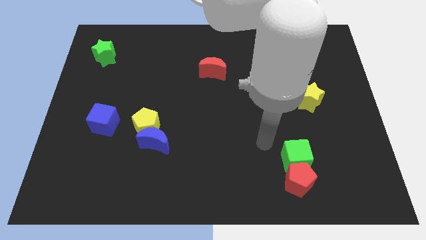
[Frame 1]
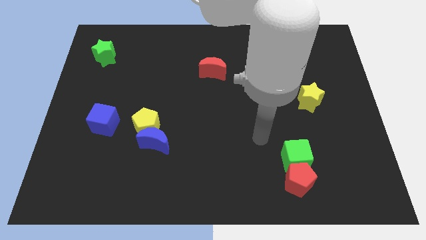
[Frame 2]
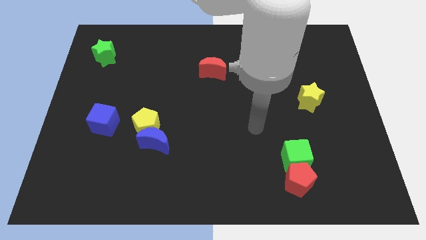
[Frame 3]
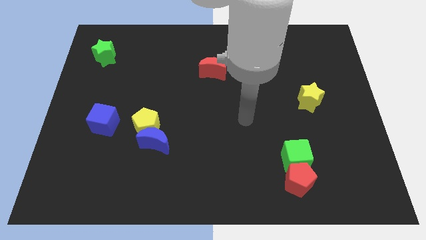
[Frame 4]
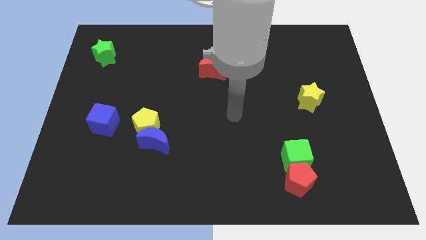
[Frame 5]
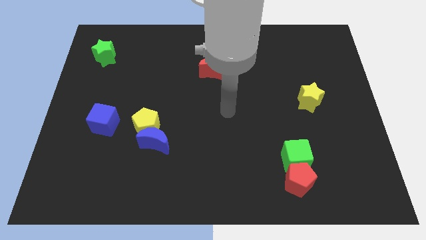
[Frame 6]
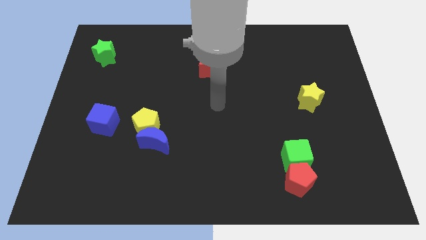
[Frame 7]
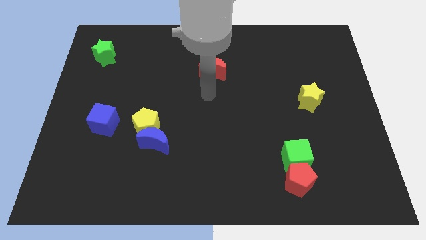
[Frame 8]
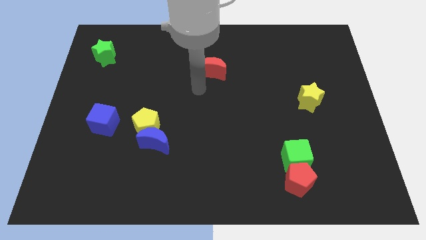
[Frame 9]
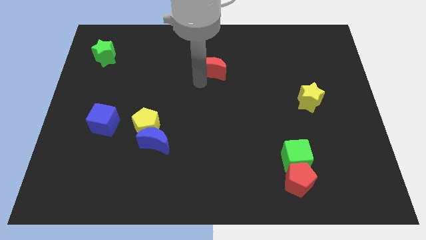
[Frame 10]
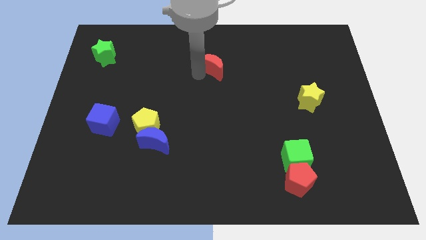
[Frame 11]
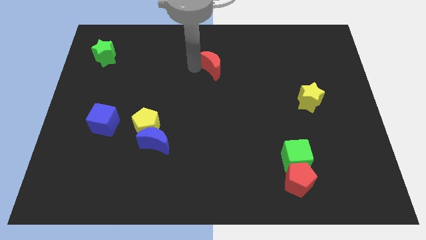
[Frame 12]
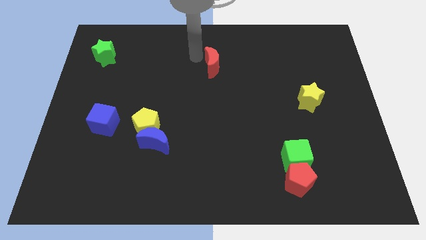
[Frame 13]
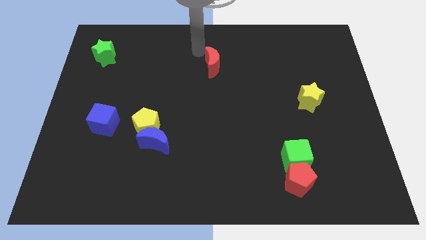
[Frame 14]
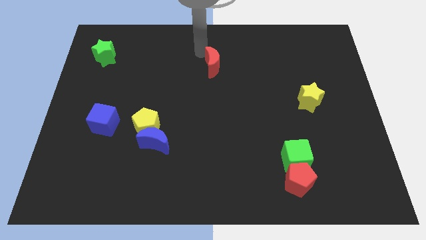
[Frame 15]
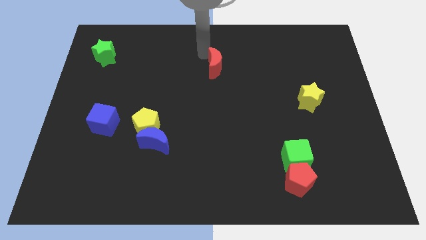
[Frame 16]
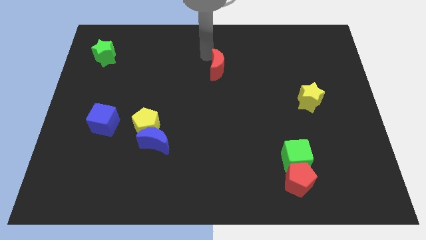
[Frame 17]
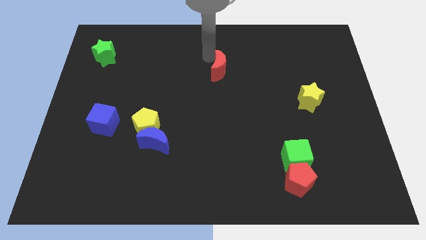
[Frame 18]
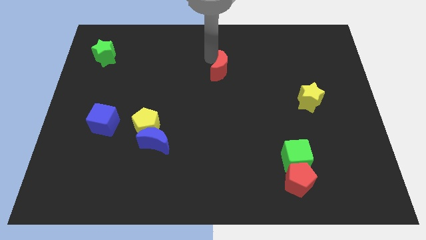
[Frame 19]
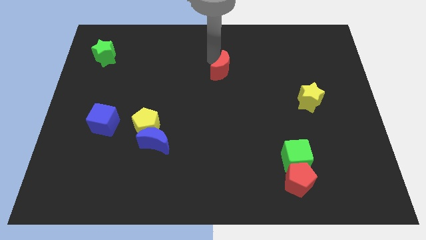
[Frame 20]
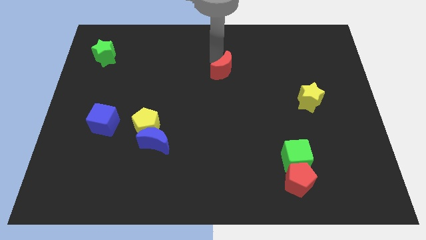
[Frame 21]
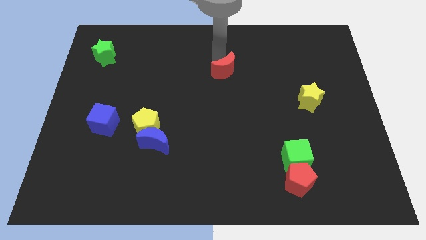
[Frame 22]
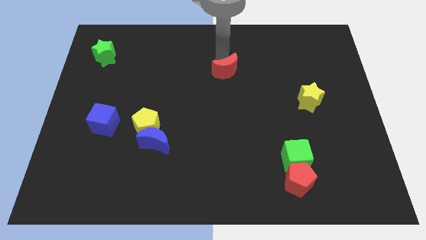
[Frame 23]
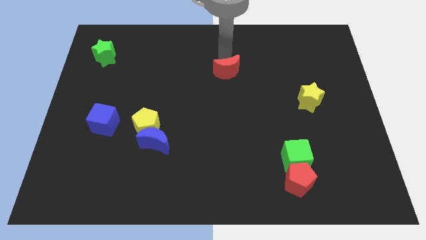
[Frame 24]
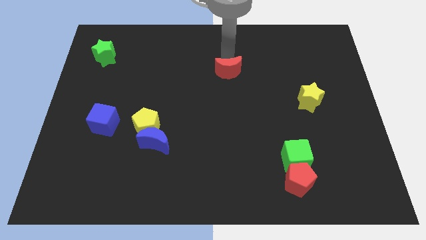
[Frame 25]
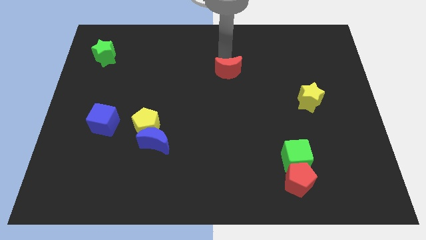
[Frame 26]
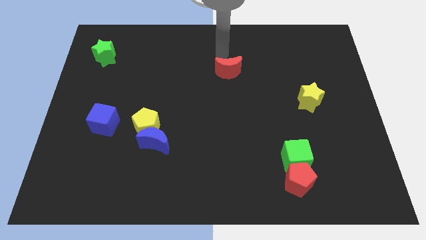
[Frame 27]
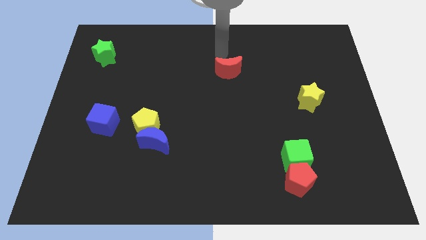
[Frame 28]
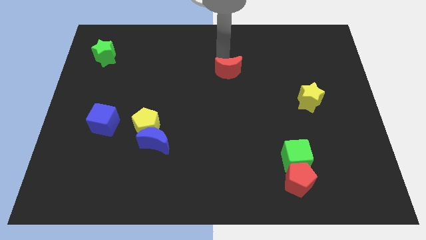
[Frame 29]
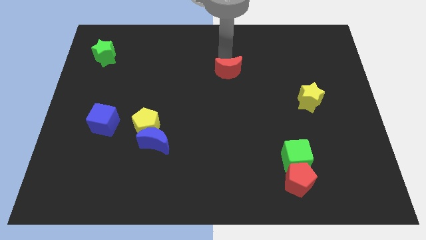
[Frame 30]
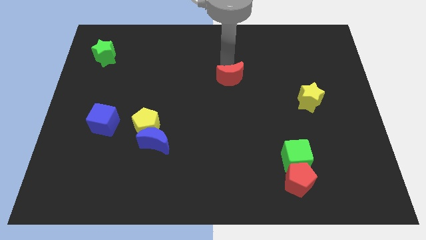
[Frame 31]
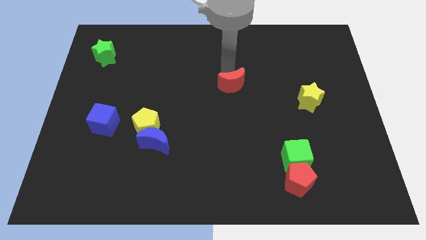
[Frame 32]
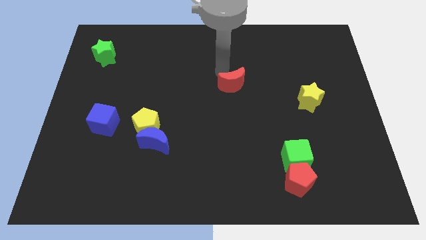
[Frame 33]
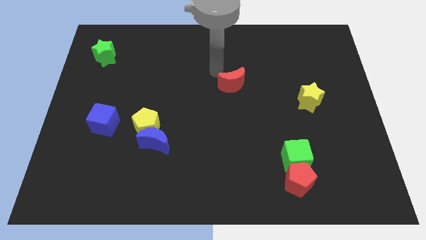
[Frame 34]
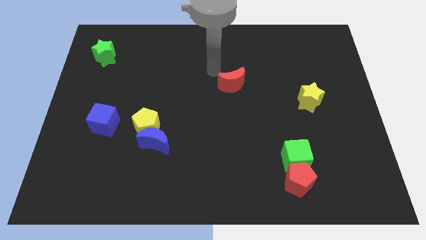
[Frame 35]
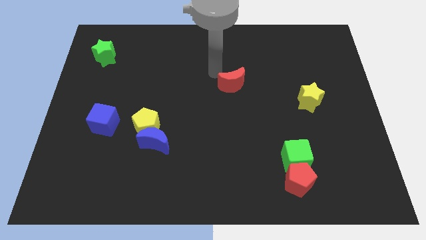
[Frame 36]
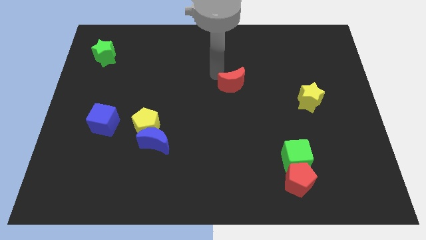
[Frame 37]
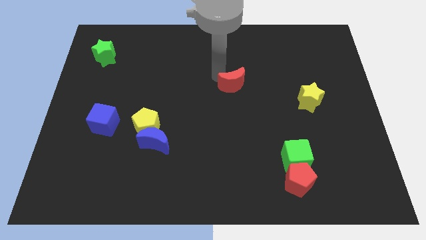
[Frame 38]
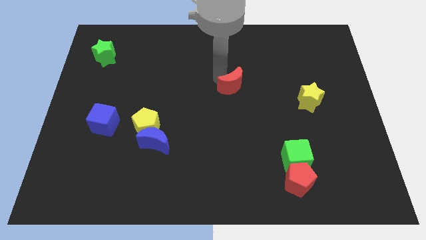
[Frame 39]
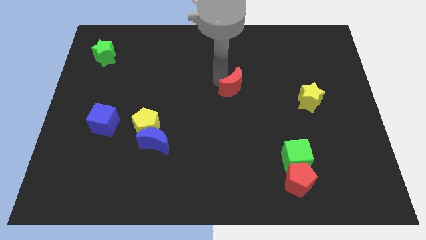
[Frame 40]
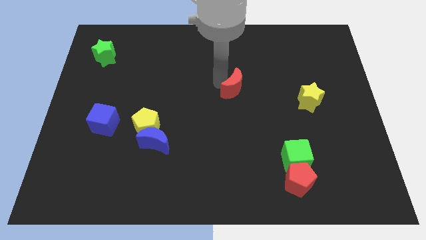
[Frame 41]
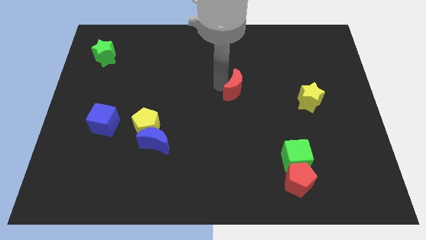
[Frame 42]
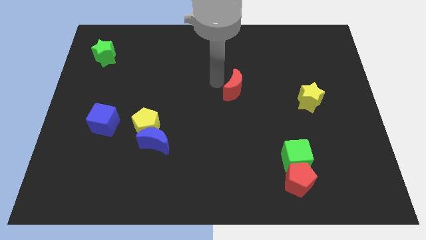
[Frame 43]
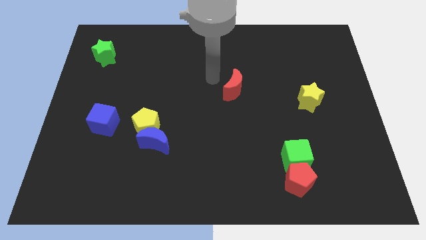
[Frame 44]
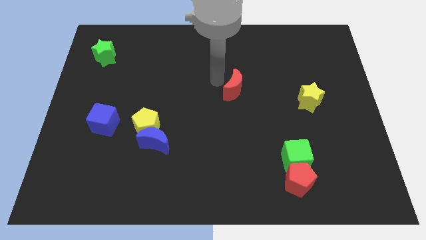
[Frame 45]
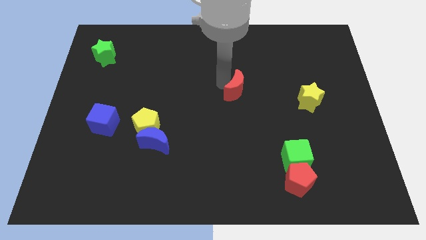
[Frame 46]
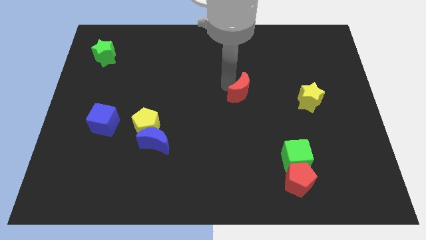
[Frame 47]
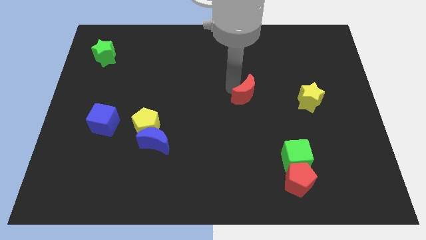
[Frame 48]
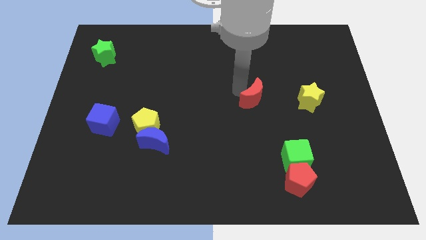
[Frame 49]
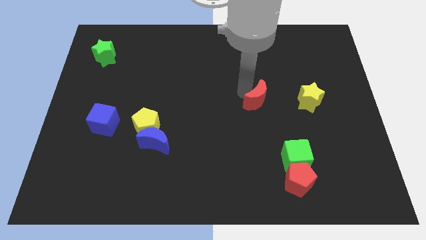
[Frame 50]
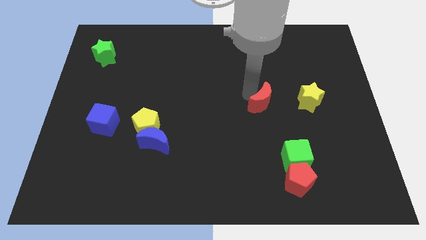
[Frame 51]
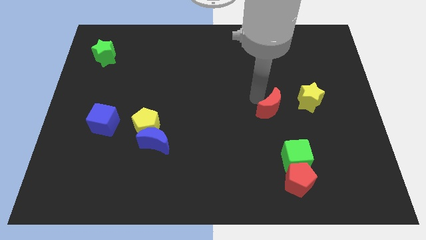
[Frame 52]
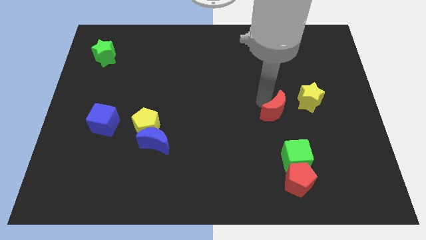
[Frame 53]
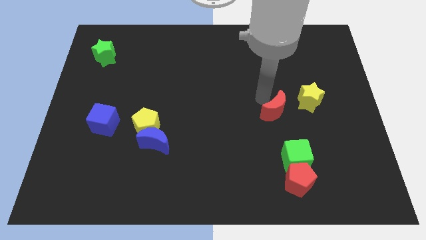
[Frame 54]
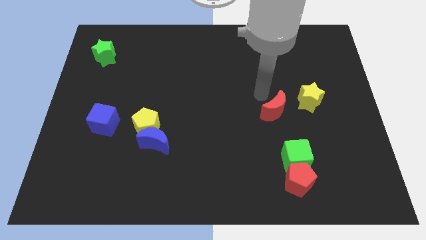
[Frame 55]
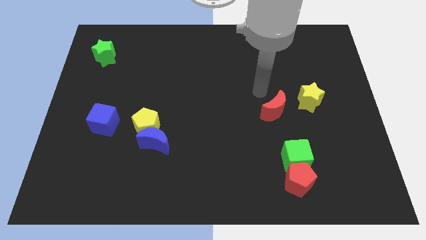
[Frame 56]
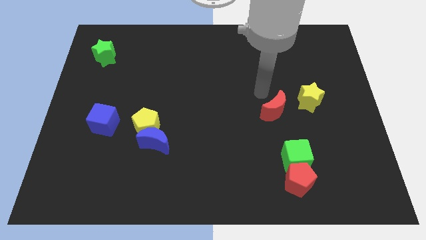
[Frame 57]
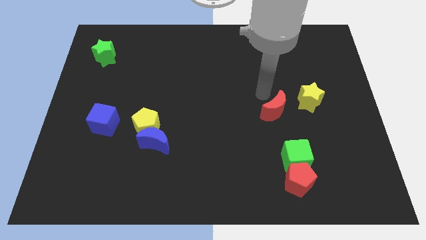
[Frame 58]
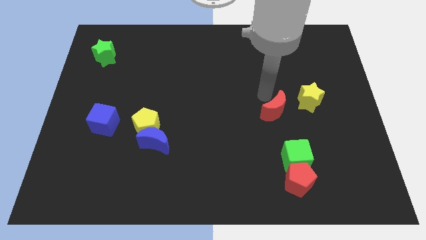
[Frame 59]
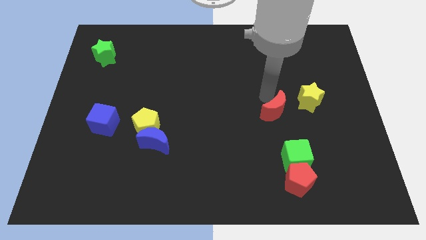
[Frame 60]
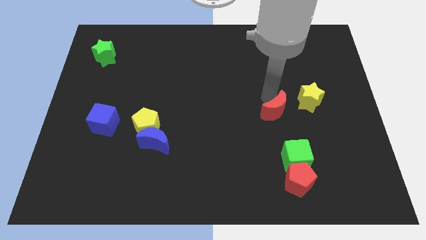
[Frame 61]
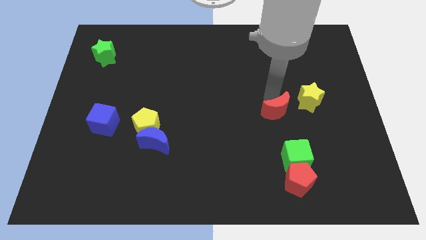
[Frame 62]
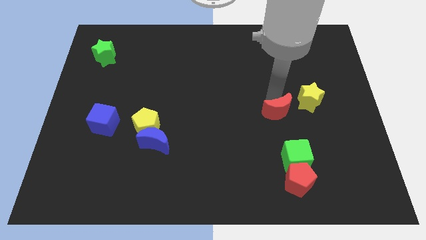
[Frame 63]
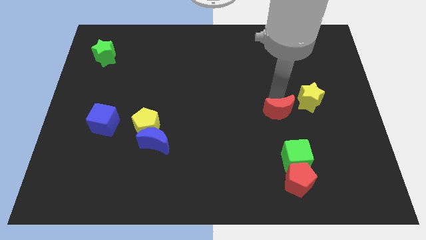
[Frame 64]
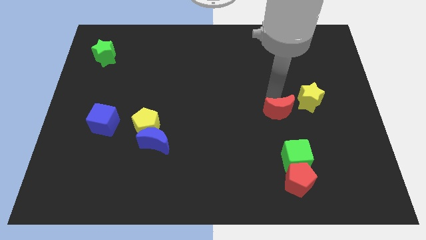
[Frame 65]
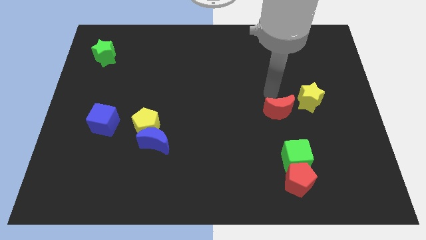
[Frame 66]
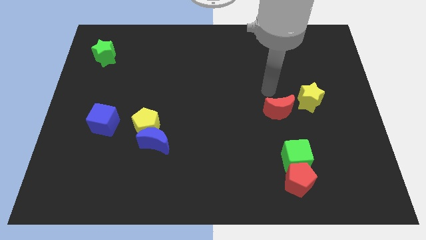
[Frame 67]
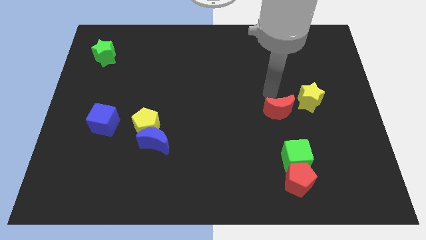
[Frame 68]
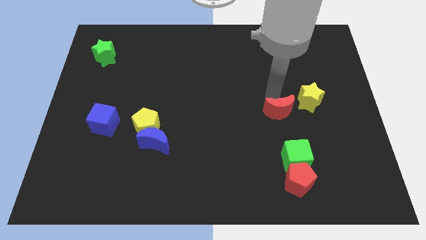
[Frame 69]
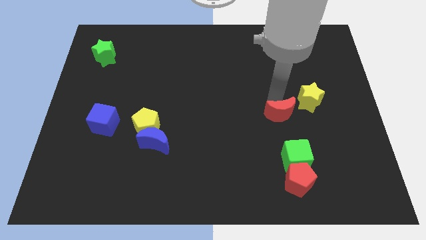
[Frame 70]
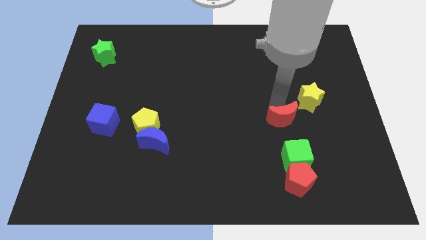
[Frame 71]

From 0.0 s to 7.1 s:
move the red moon to the top side of the red pentagon

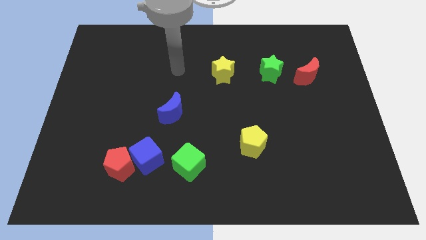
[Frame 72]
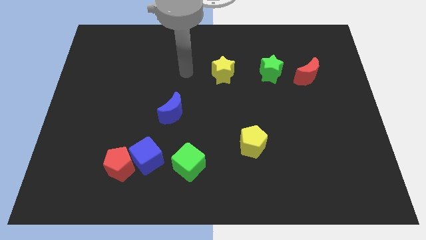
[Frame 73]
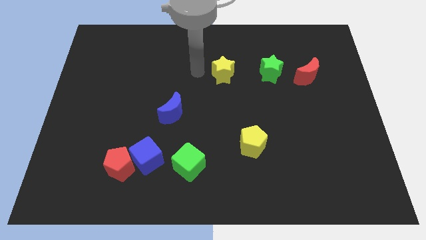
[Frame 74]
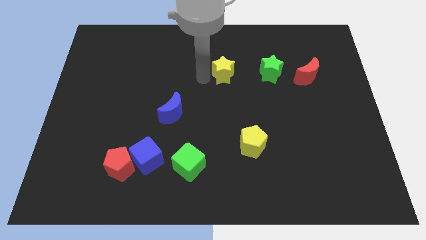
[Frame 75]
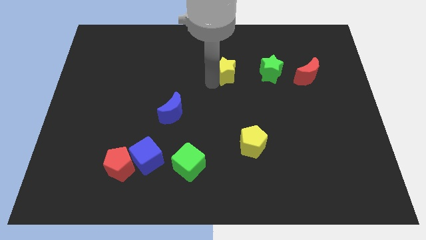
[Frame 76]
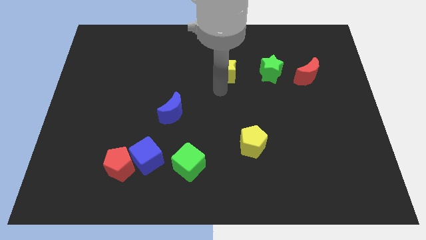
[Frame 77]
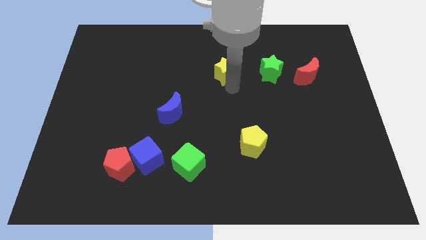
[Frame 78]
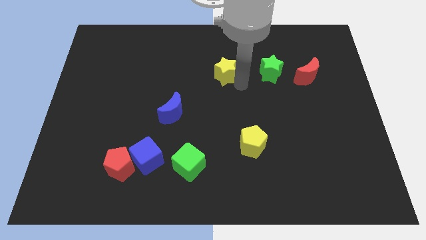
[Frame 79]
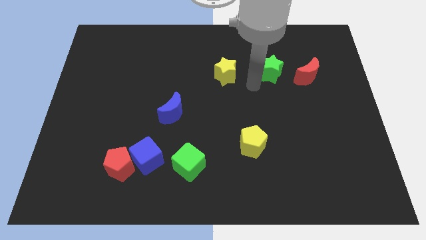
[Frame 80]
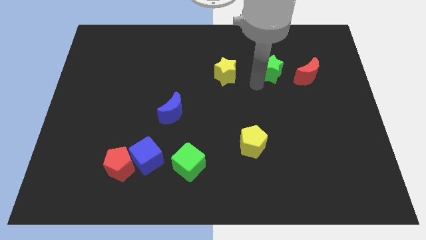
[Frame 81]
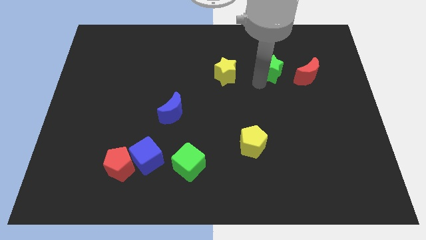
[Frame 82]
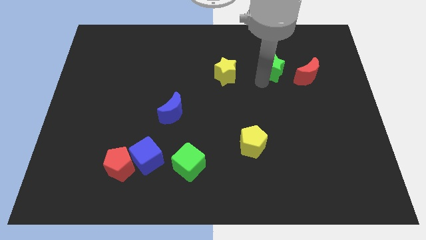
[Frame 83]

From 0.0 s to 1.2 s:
push the green star diagonally up and to the left of the red moon
